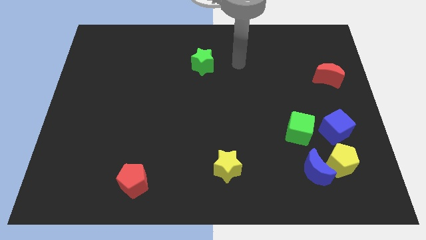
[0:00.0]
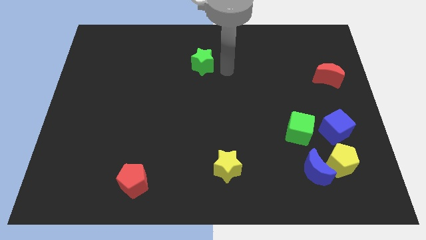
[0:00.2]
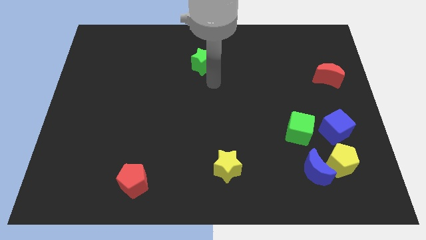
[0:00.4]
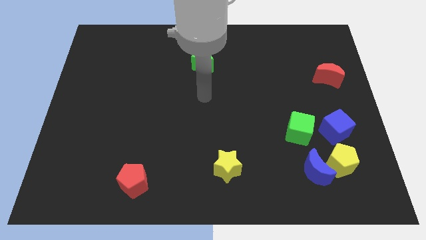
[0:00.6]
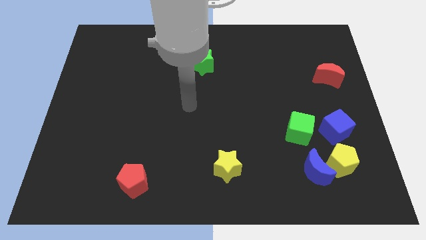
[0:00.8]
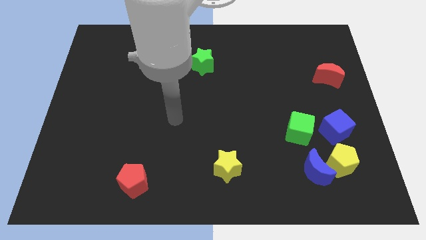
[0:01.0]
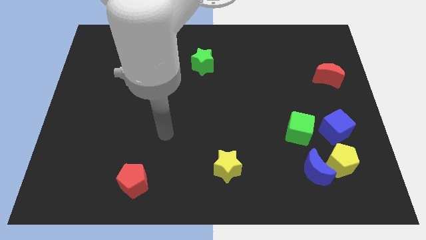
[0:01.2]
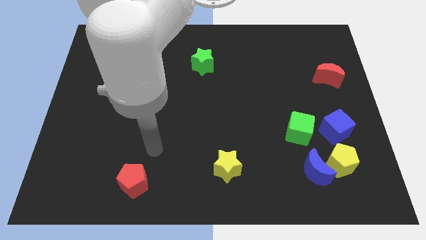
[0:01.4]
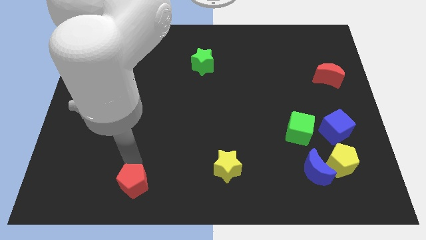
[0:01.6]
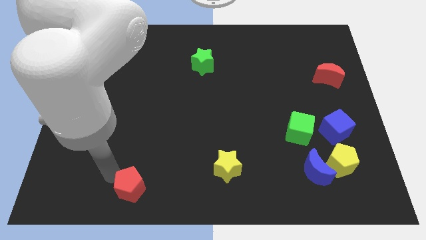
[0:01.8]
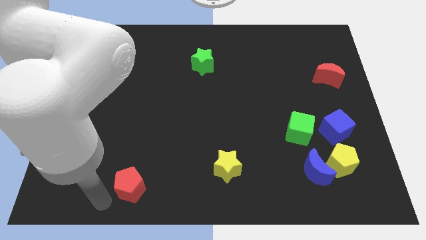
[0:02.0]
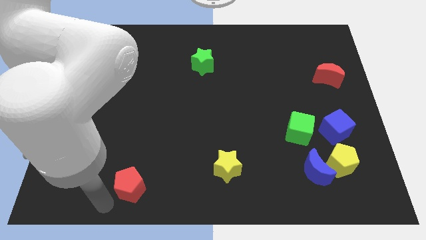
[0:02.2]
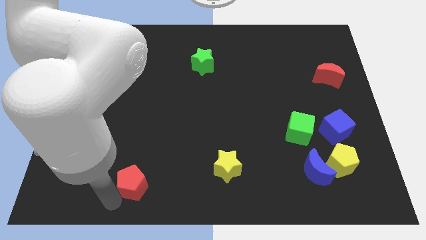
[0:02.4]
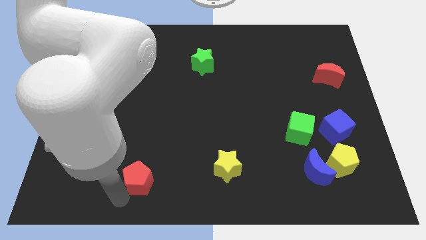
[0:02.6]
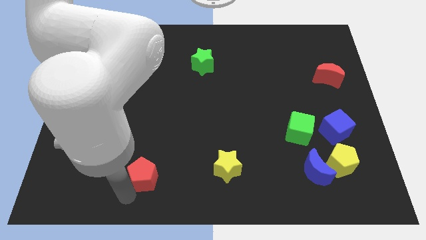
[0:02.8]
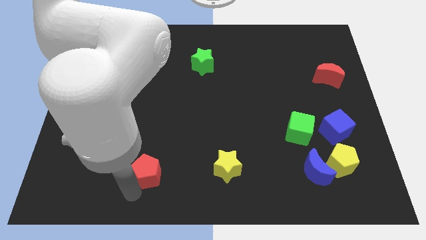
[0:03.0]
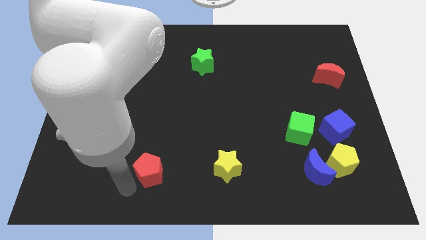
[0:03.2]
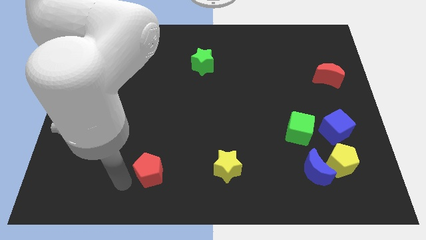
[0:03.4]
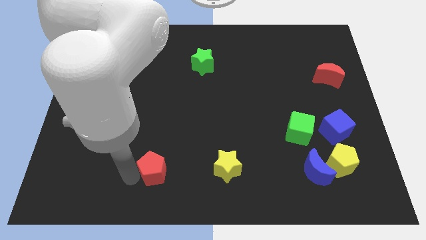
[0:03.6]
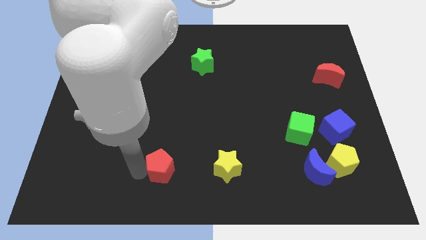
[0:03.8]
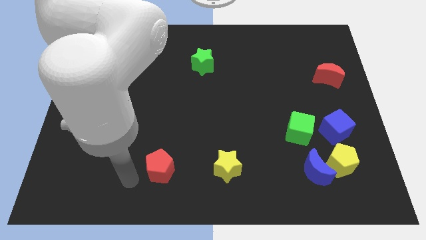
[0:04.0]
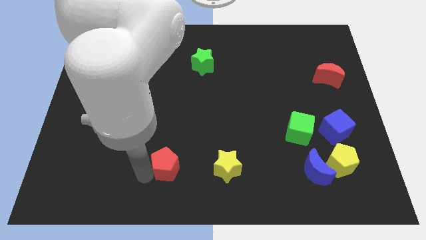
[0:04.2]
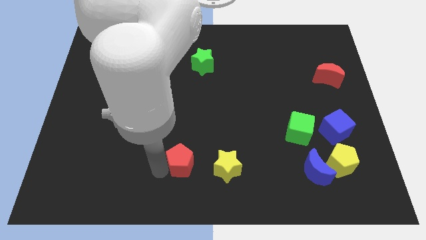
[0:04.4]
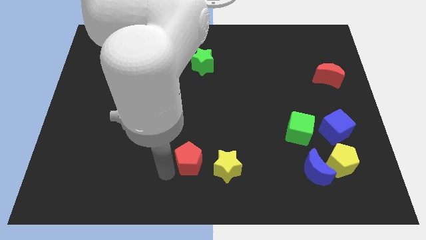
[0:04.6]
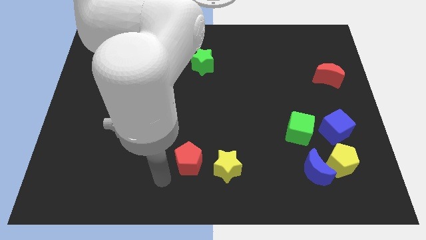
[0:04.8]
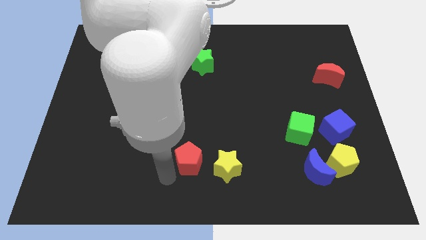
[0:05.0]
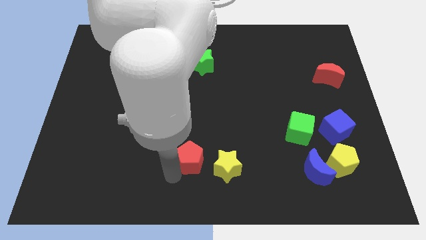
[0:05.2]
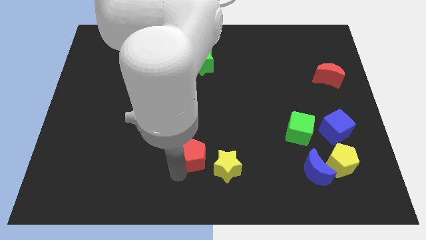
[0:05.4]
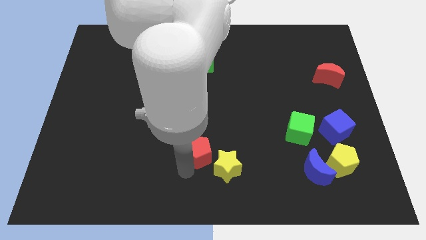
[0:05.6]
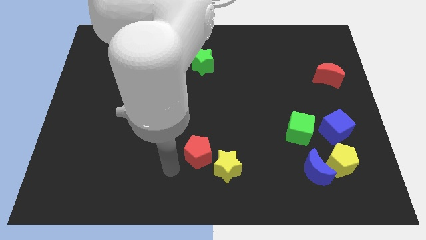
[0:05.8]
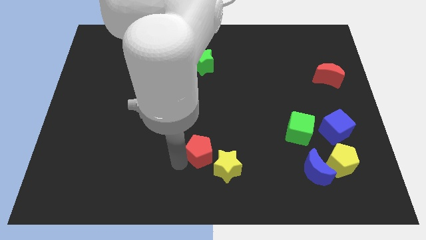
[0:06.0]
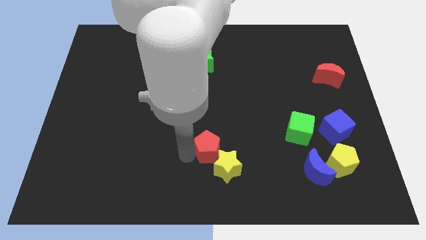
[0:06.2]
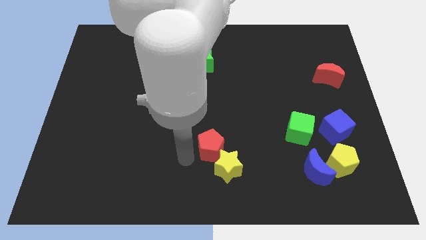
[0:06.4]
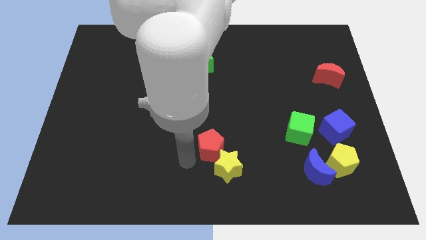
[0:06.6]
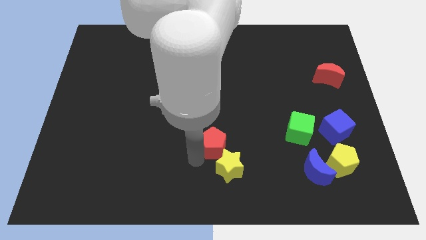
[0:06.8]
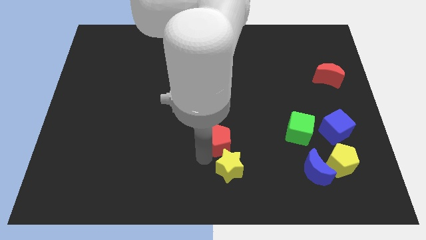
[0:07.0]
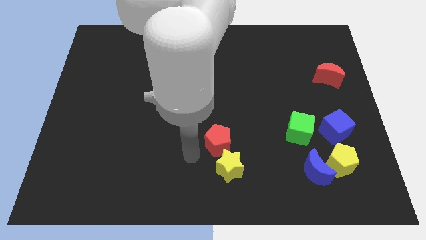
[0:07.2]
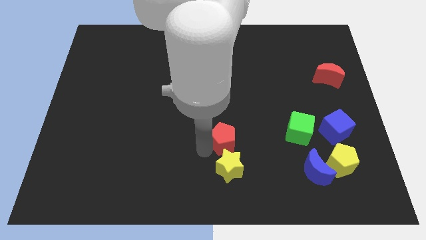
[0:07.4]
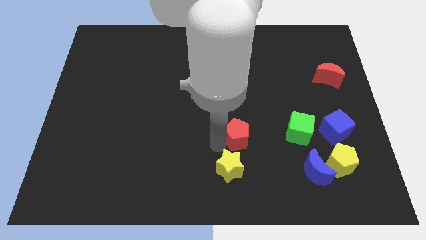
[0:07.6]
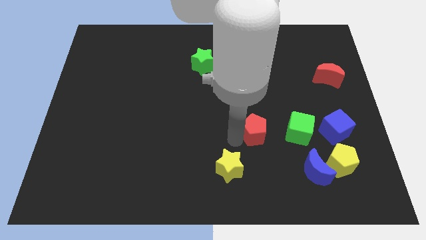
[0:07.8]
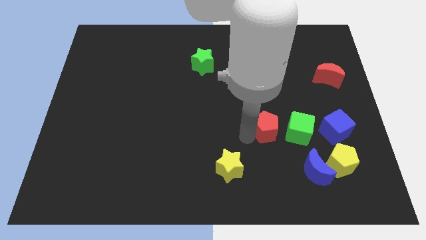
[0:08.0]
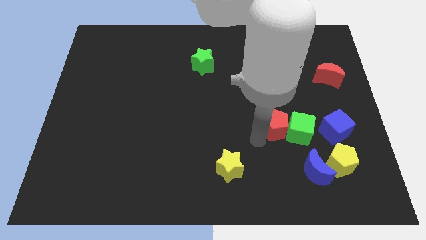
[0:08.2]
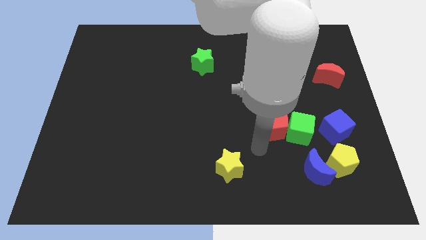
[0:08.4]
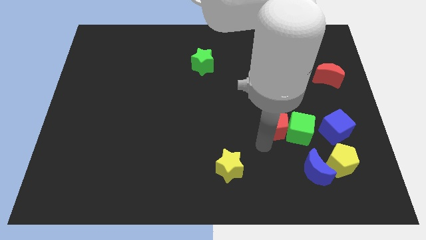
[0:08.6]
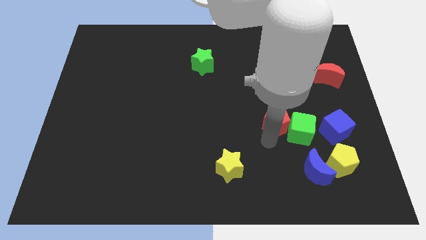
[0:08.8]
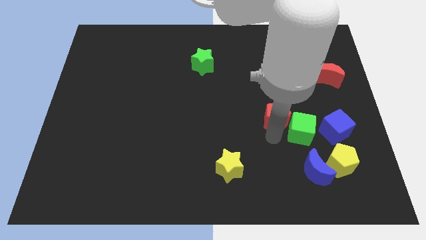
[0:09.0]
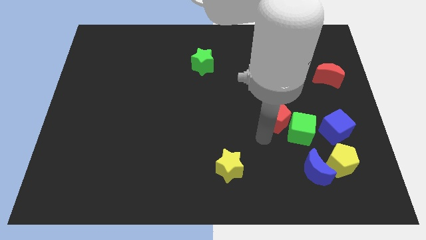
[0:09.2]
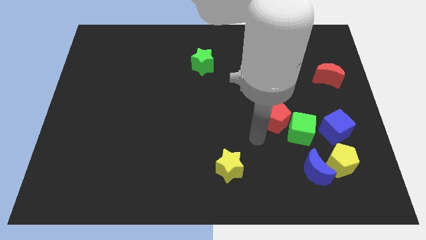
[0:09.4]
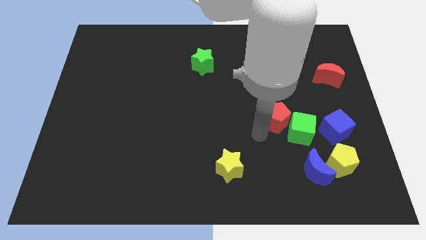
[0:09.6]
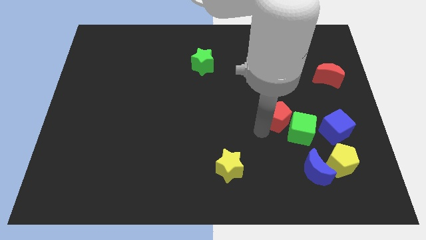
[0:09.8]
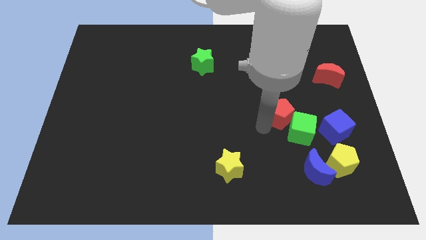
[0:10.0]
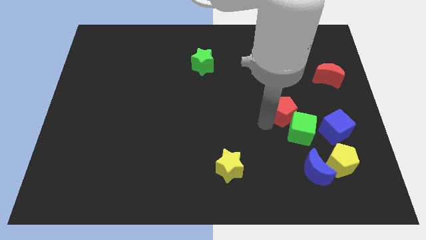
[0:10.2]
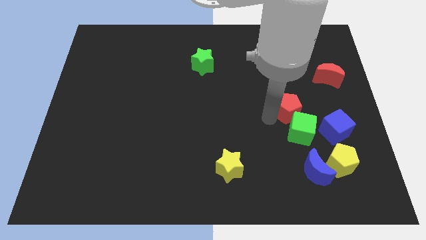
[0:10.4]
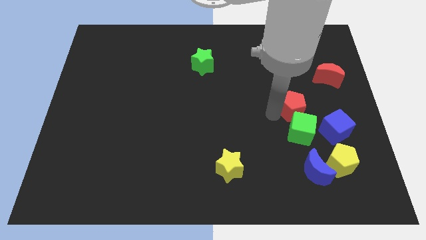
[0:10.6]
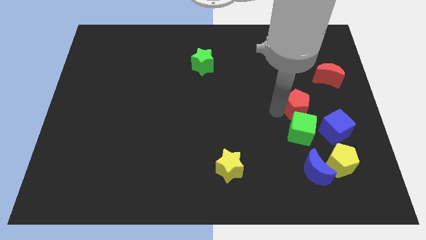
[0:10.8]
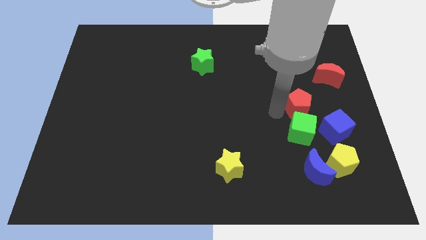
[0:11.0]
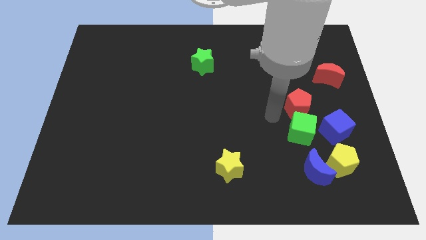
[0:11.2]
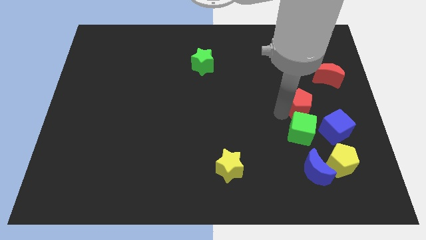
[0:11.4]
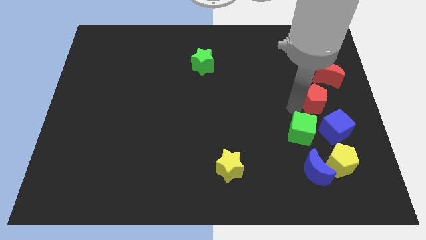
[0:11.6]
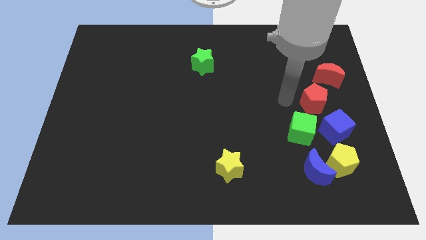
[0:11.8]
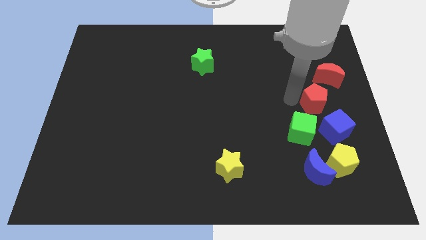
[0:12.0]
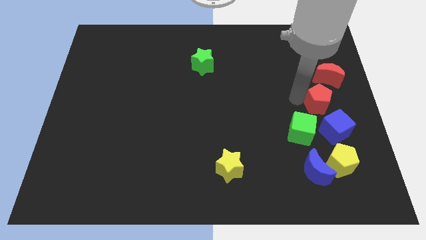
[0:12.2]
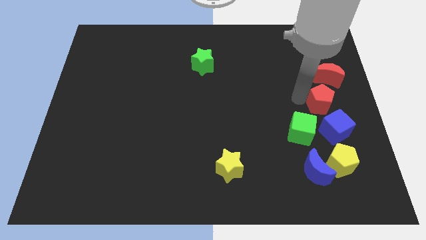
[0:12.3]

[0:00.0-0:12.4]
slide the red pentagon to the right side
